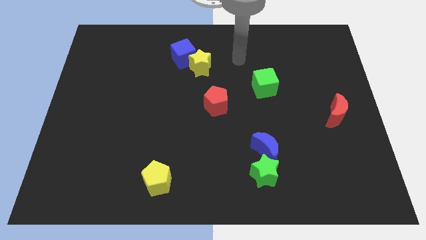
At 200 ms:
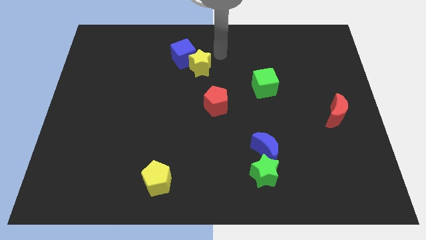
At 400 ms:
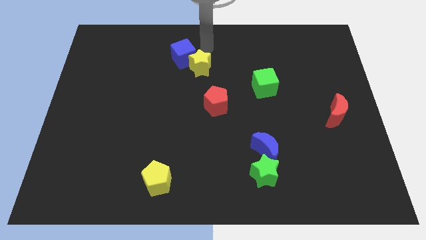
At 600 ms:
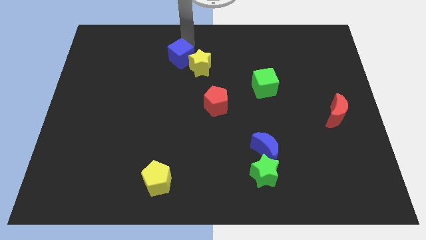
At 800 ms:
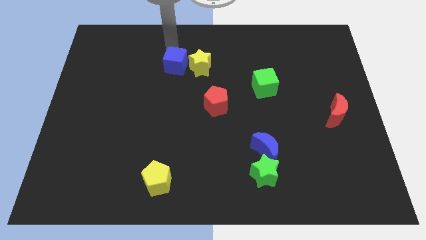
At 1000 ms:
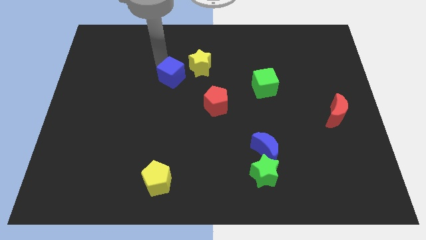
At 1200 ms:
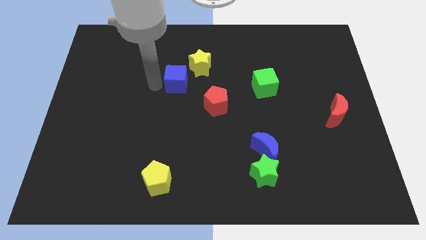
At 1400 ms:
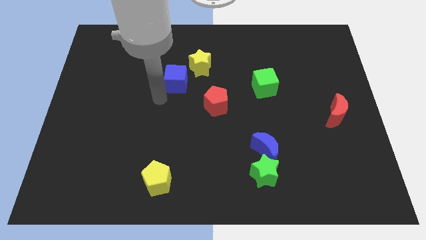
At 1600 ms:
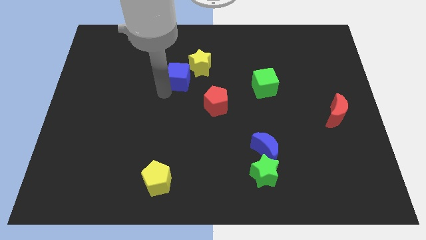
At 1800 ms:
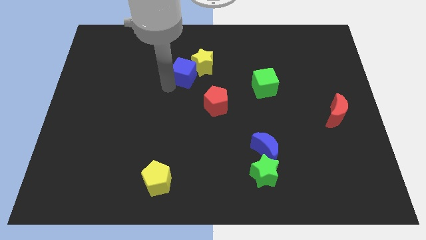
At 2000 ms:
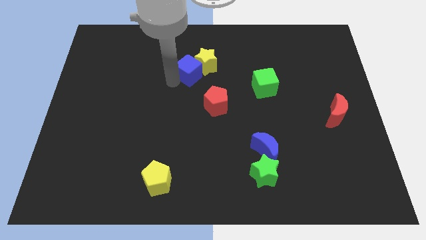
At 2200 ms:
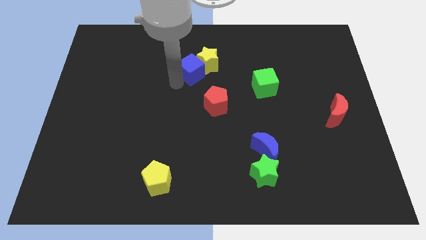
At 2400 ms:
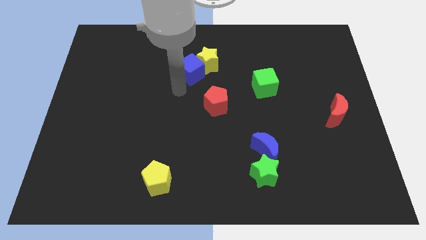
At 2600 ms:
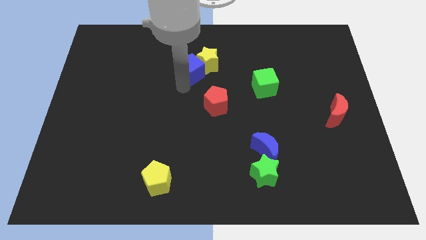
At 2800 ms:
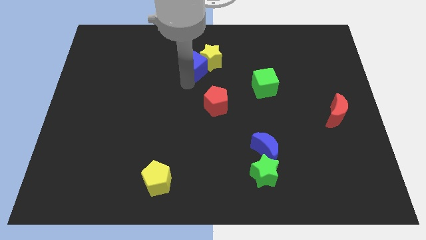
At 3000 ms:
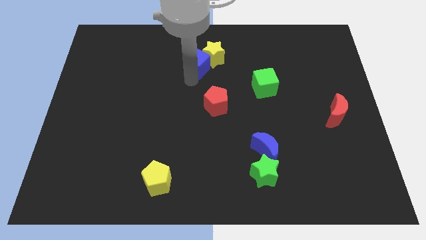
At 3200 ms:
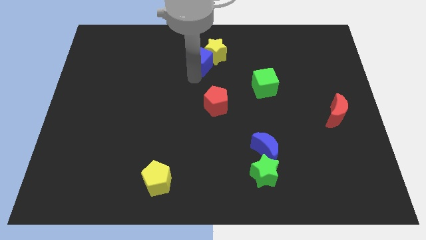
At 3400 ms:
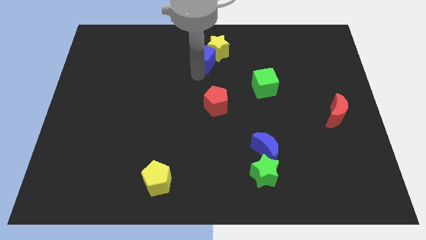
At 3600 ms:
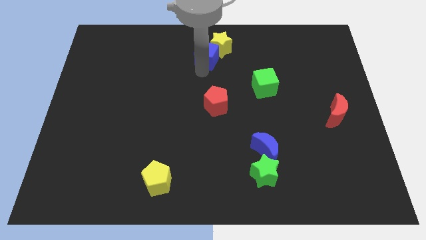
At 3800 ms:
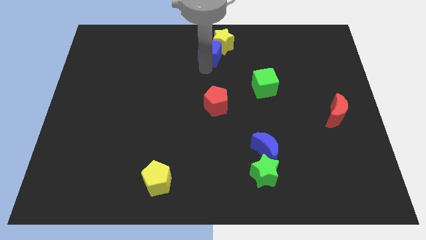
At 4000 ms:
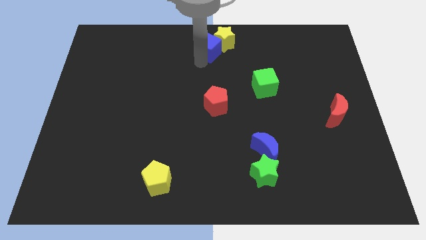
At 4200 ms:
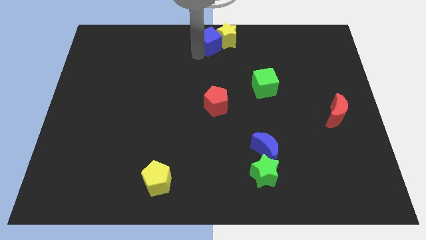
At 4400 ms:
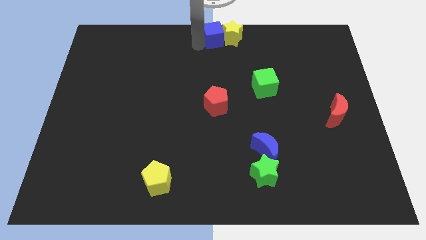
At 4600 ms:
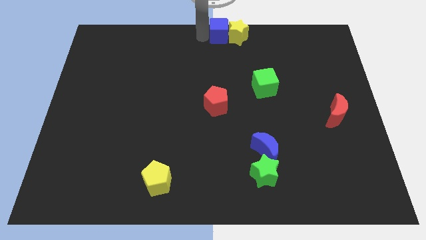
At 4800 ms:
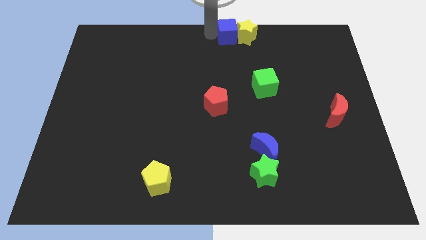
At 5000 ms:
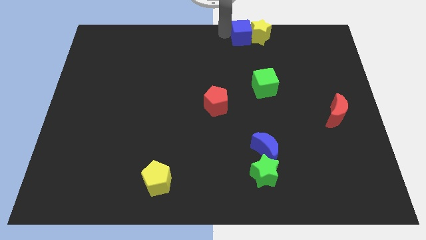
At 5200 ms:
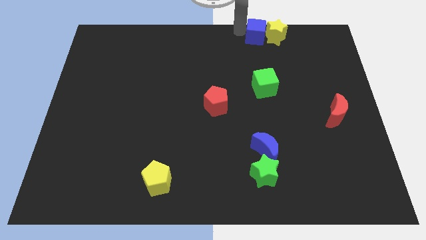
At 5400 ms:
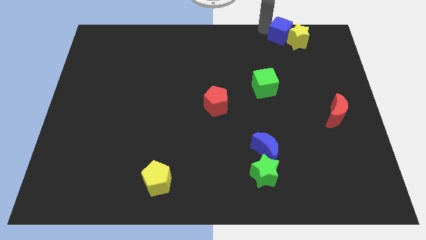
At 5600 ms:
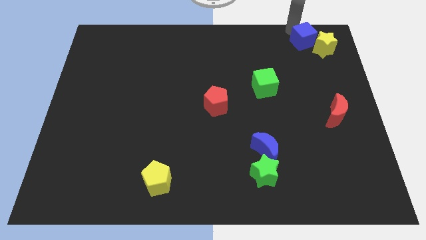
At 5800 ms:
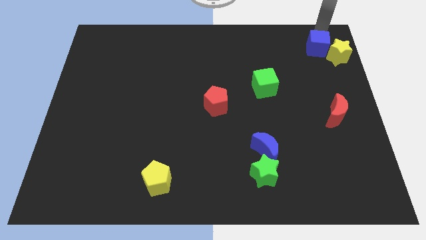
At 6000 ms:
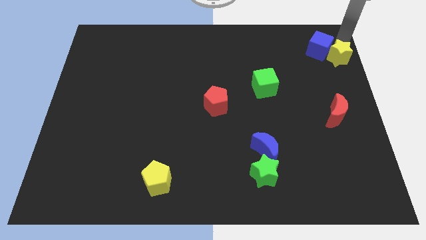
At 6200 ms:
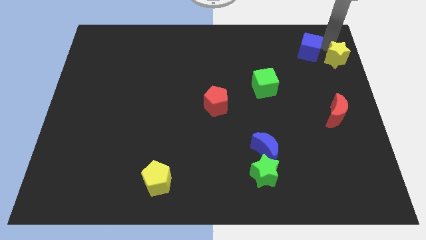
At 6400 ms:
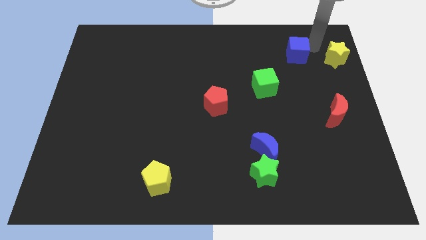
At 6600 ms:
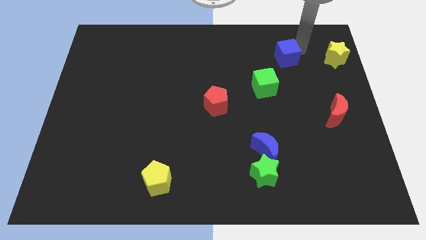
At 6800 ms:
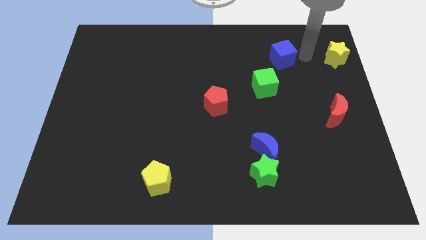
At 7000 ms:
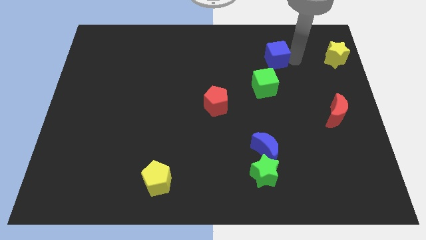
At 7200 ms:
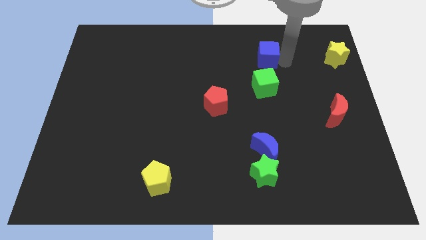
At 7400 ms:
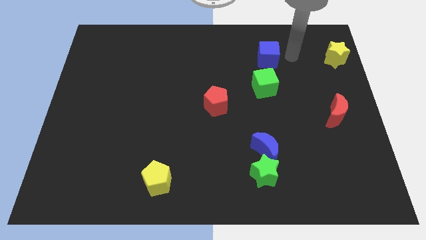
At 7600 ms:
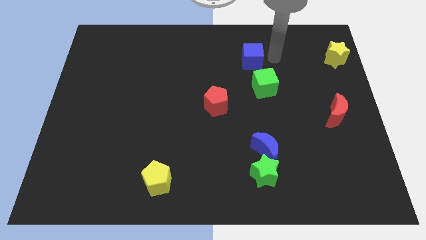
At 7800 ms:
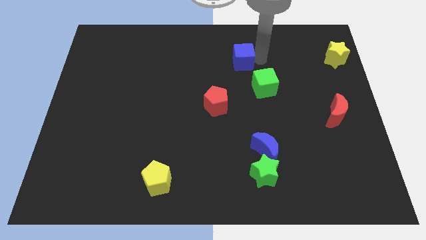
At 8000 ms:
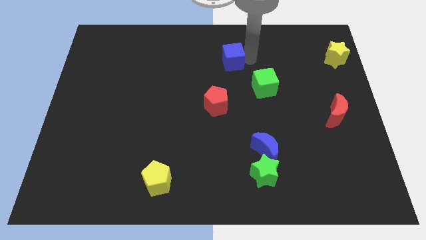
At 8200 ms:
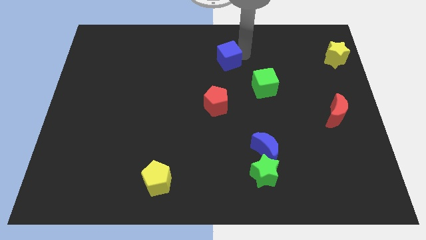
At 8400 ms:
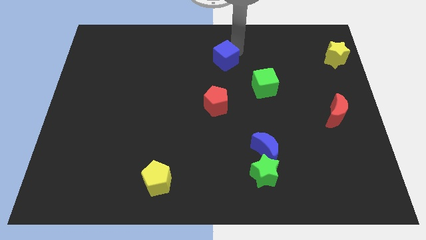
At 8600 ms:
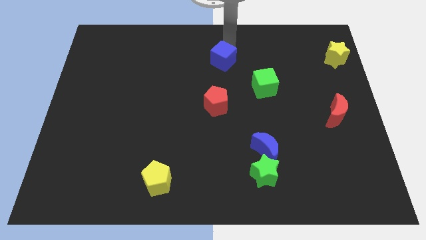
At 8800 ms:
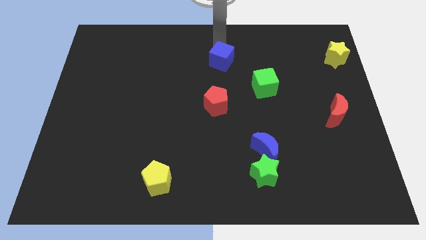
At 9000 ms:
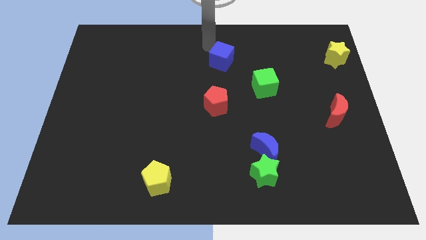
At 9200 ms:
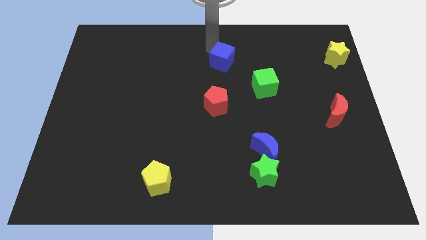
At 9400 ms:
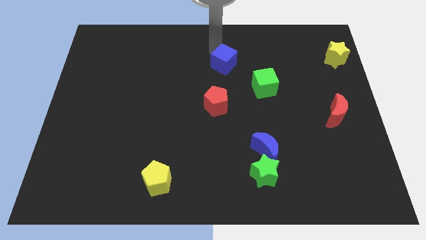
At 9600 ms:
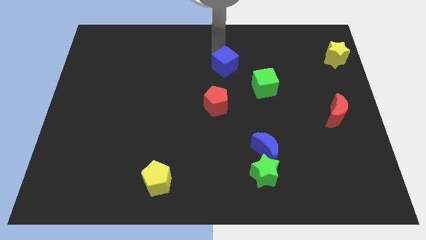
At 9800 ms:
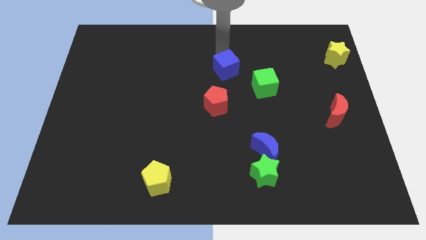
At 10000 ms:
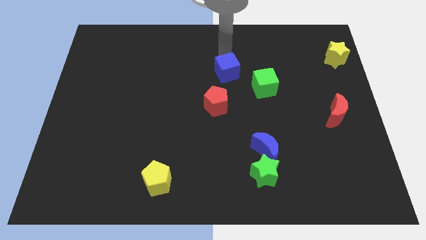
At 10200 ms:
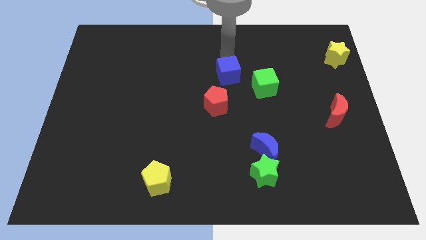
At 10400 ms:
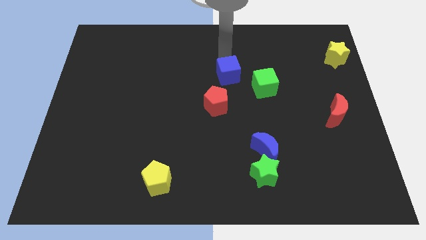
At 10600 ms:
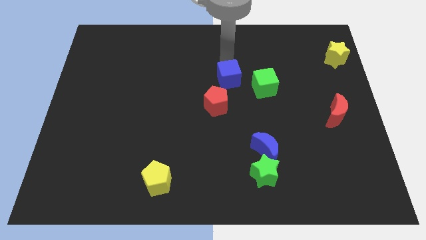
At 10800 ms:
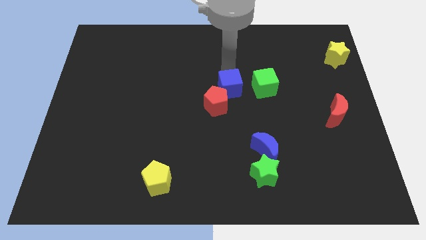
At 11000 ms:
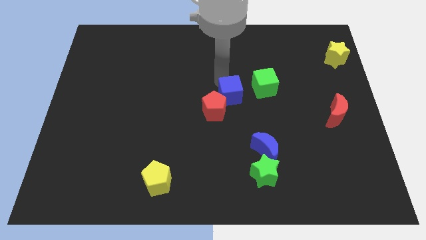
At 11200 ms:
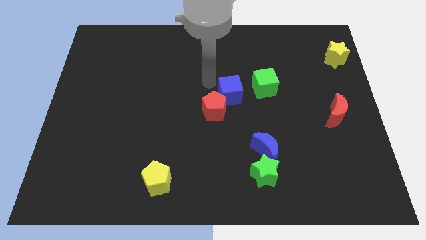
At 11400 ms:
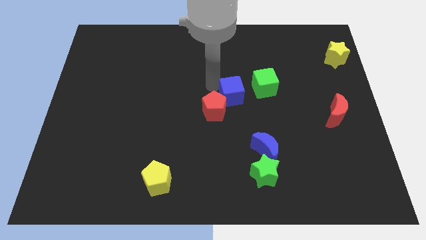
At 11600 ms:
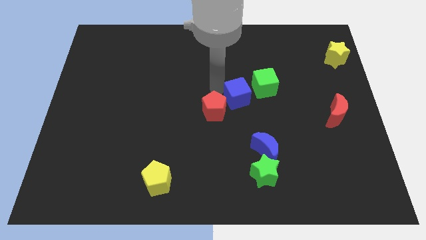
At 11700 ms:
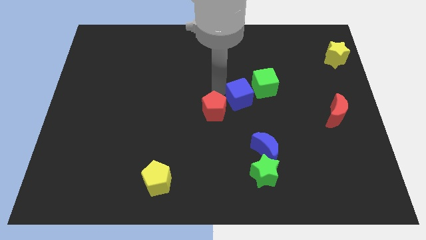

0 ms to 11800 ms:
move the blue cube diagonally downwards and right

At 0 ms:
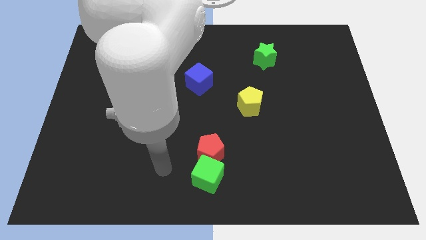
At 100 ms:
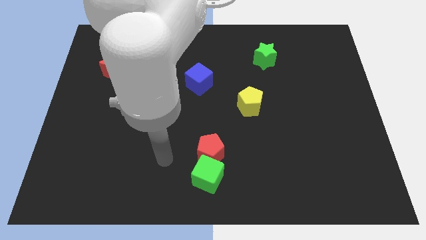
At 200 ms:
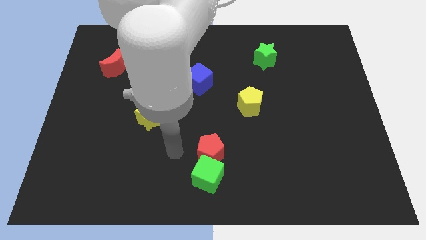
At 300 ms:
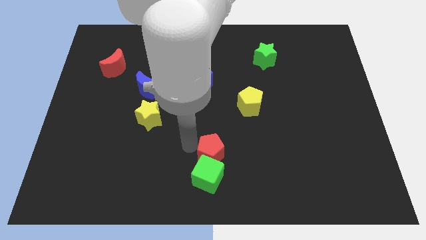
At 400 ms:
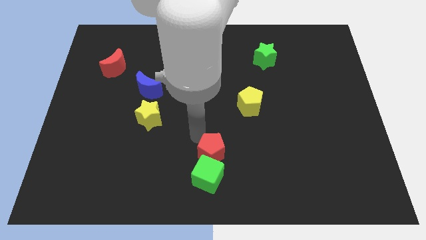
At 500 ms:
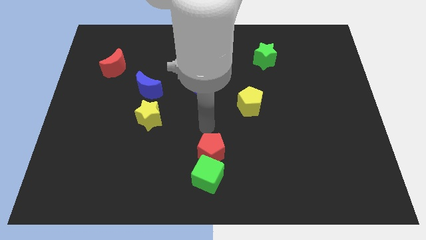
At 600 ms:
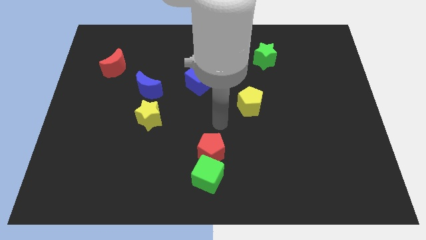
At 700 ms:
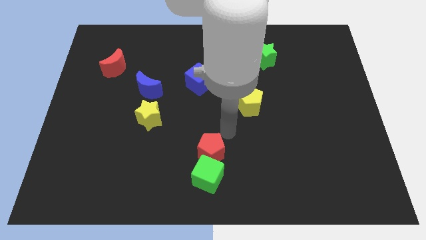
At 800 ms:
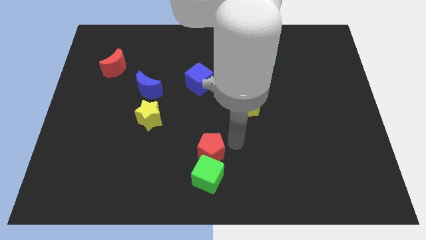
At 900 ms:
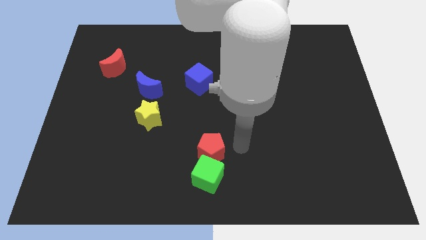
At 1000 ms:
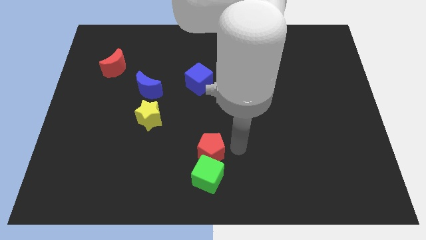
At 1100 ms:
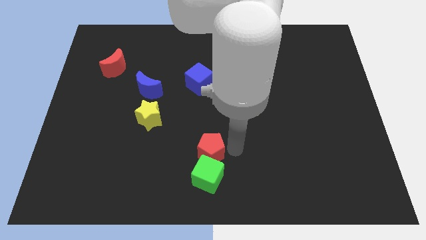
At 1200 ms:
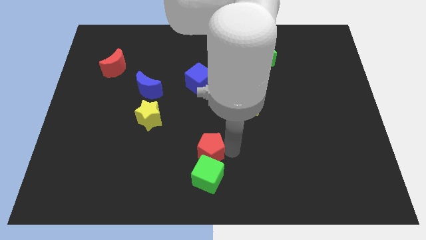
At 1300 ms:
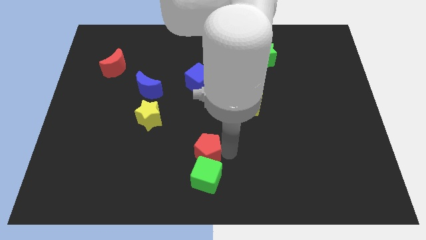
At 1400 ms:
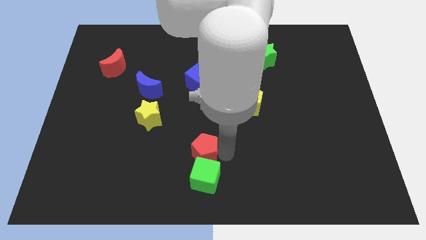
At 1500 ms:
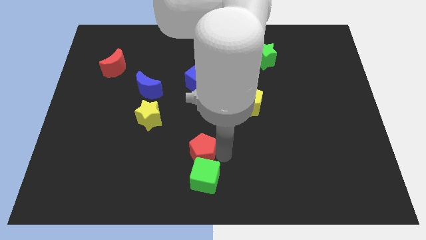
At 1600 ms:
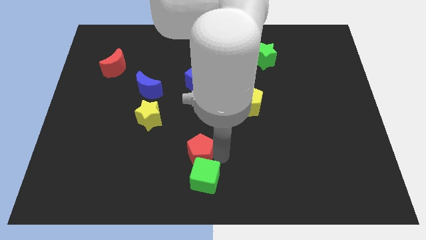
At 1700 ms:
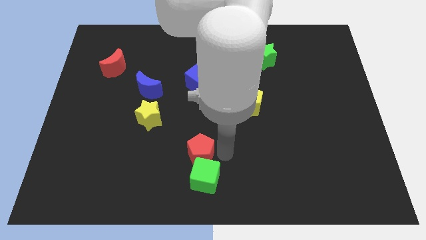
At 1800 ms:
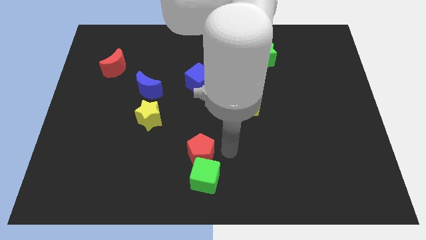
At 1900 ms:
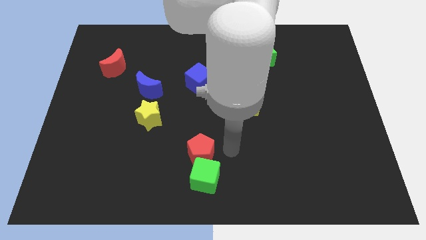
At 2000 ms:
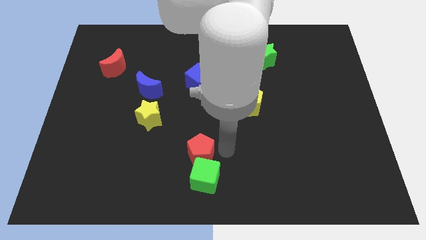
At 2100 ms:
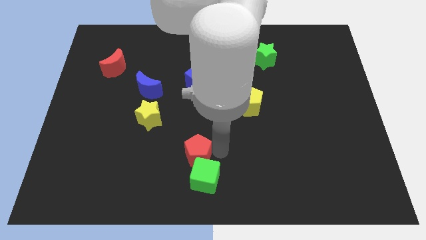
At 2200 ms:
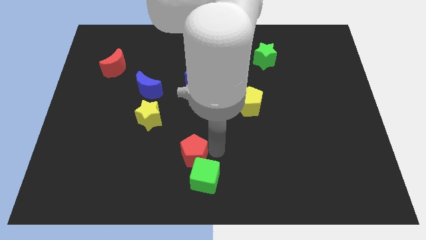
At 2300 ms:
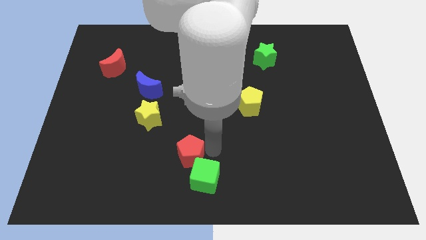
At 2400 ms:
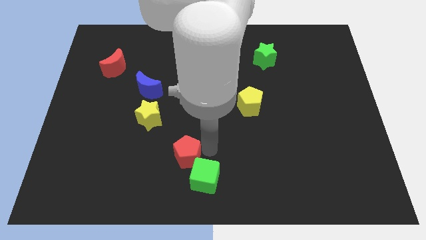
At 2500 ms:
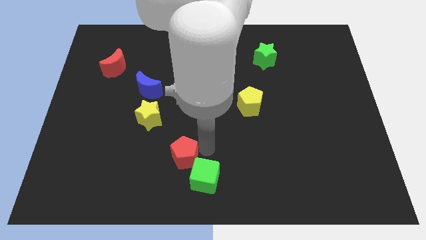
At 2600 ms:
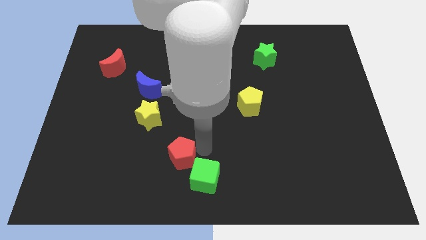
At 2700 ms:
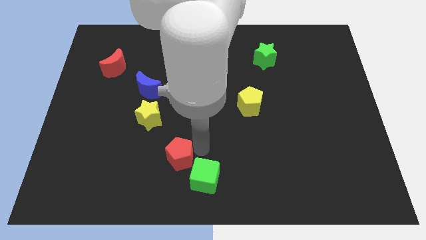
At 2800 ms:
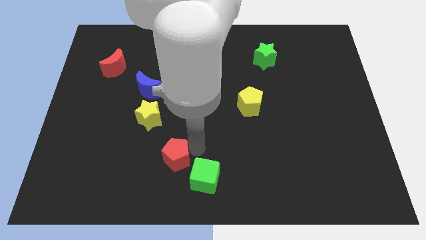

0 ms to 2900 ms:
move the red pentagon to the left slightly
